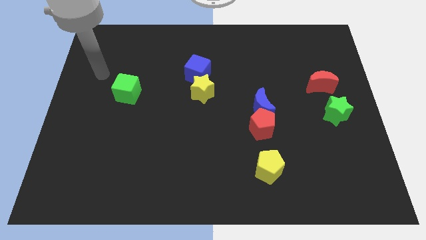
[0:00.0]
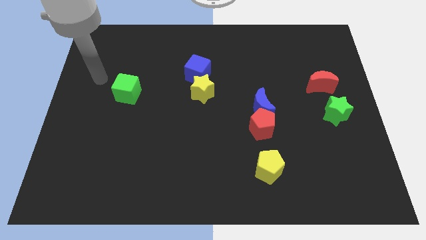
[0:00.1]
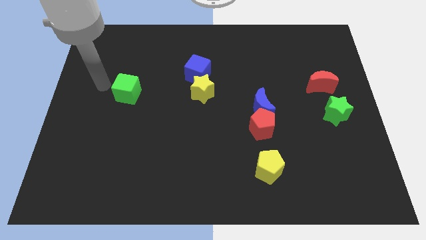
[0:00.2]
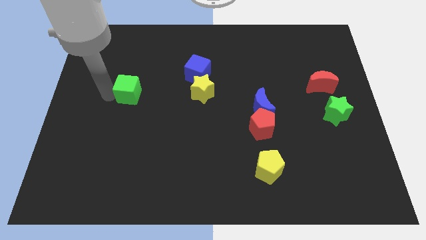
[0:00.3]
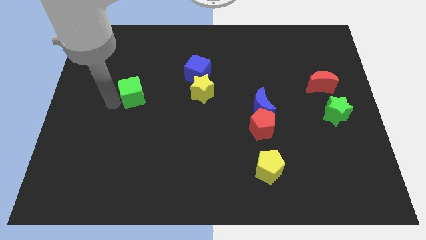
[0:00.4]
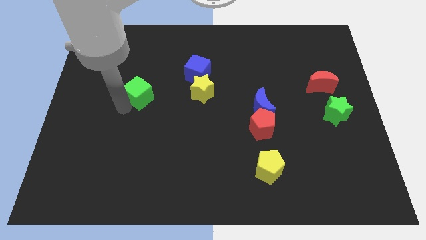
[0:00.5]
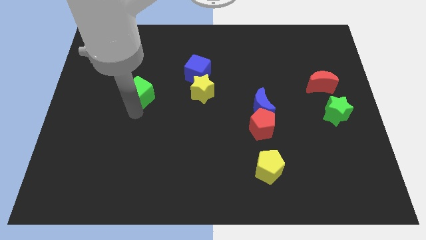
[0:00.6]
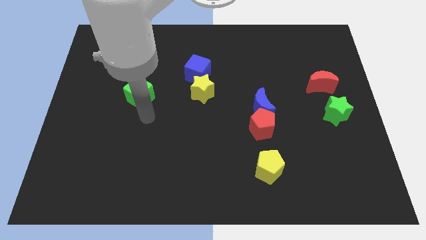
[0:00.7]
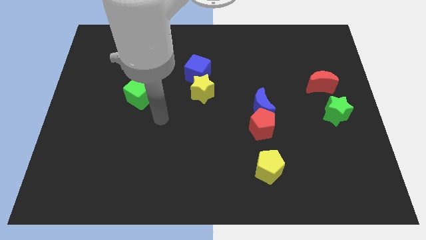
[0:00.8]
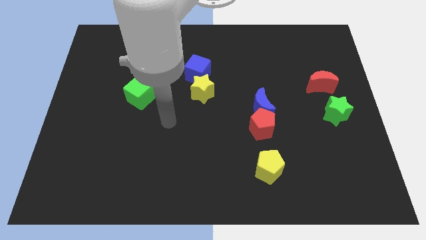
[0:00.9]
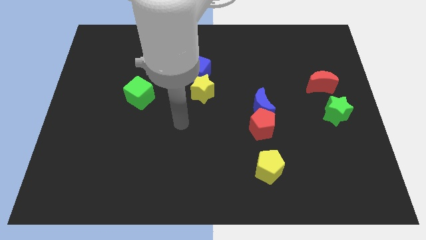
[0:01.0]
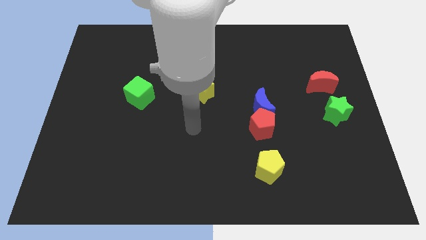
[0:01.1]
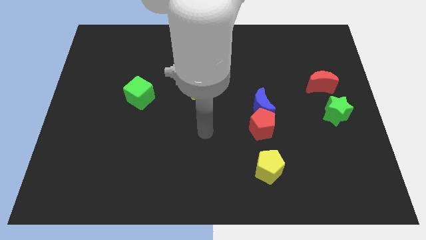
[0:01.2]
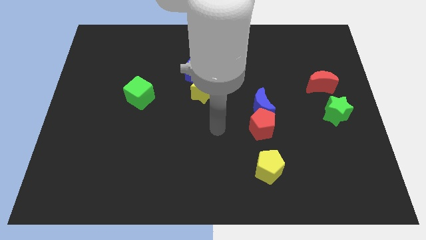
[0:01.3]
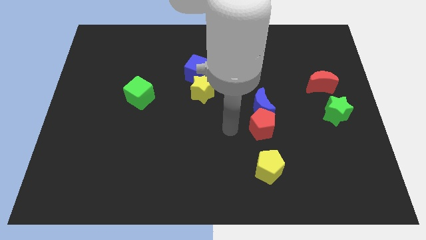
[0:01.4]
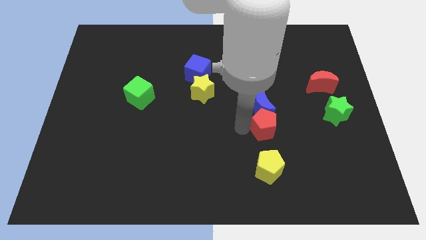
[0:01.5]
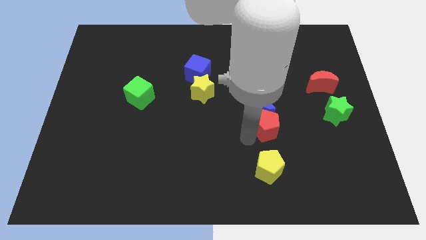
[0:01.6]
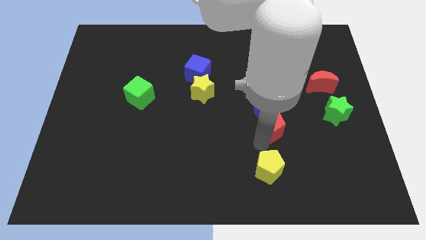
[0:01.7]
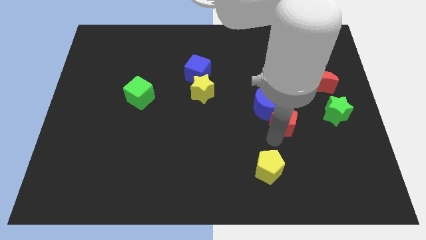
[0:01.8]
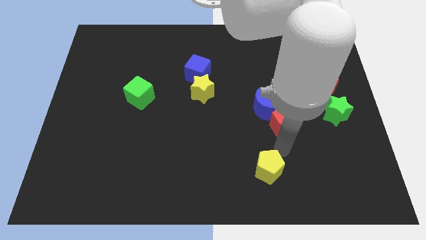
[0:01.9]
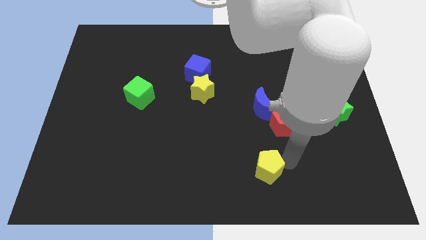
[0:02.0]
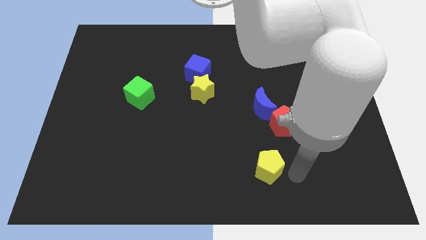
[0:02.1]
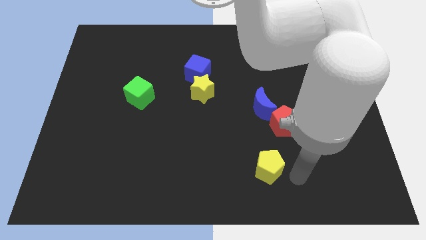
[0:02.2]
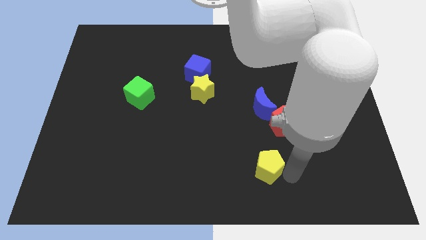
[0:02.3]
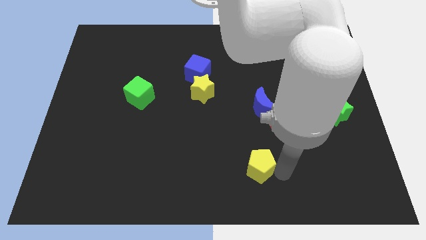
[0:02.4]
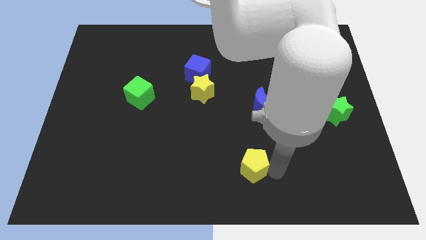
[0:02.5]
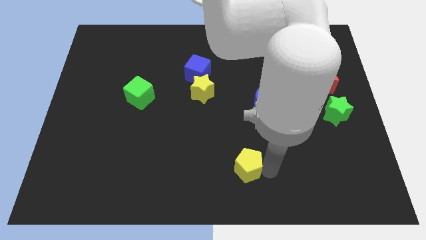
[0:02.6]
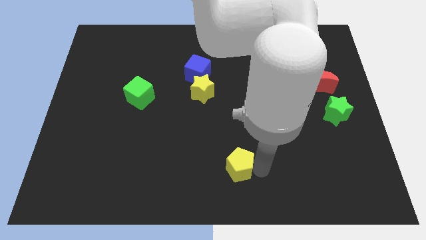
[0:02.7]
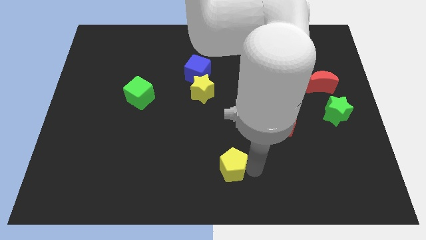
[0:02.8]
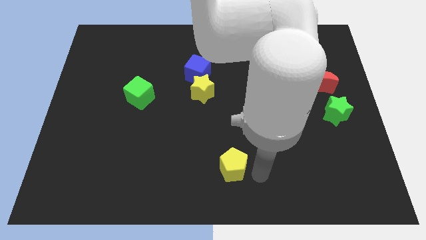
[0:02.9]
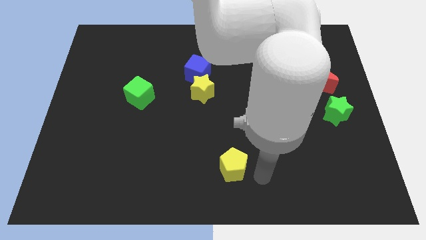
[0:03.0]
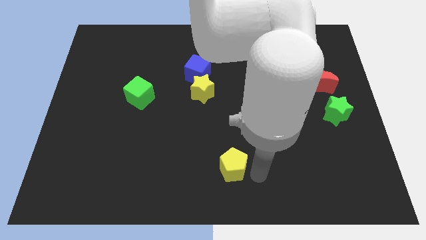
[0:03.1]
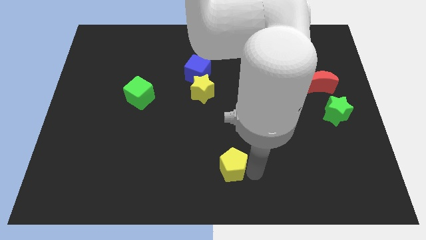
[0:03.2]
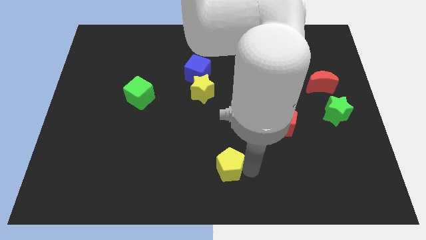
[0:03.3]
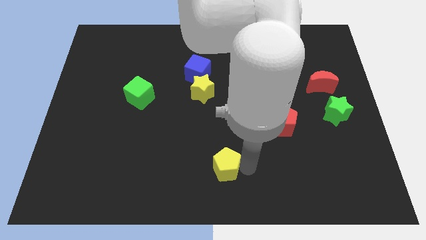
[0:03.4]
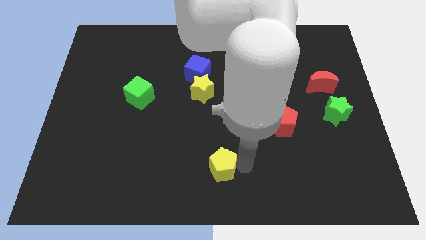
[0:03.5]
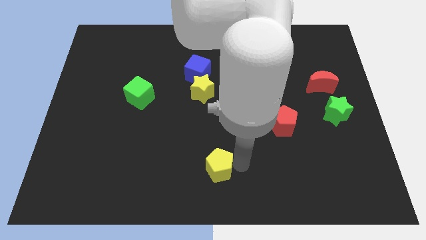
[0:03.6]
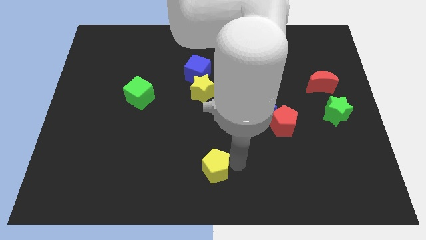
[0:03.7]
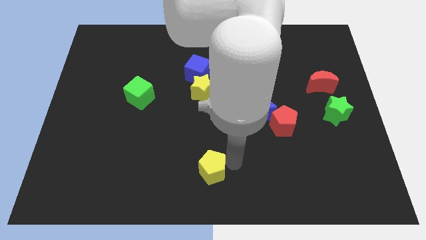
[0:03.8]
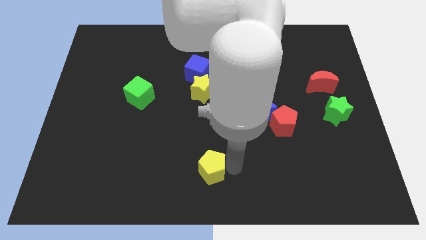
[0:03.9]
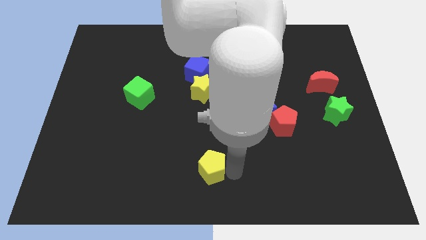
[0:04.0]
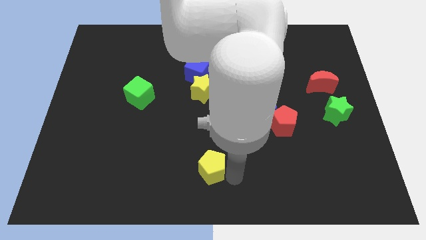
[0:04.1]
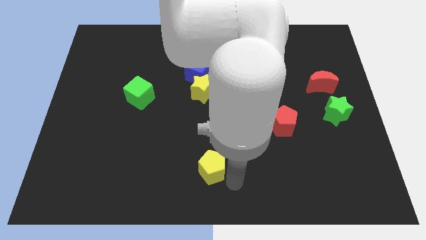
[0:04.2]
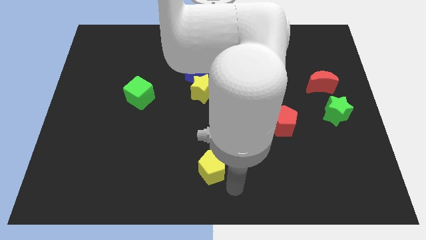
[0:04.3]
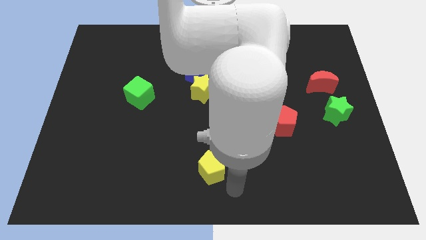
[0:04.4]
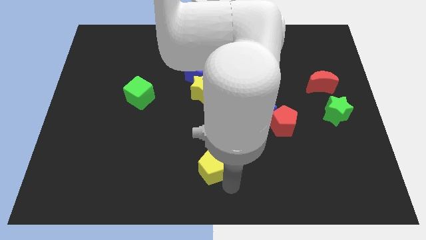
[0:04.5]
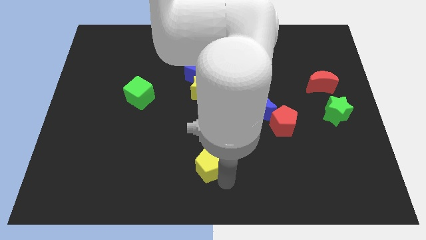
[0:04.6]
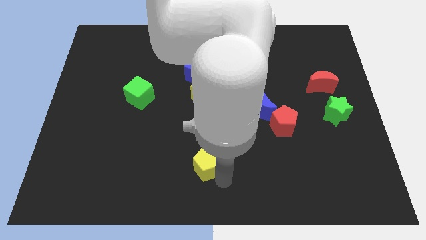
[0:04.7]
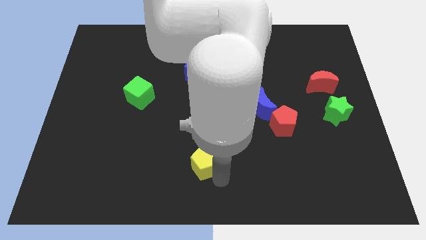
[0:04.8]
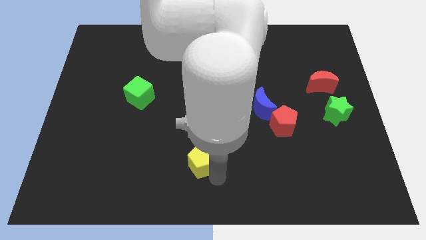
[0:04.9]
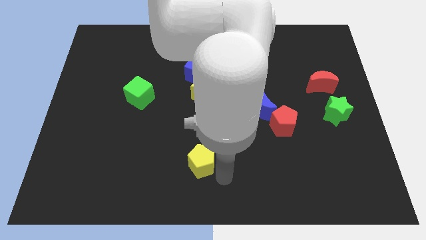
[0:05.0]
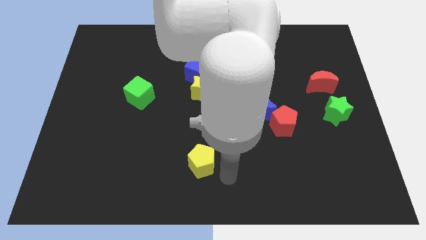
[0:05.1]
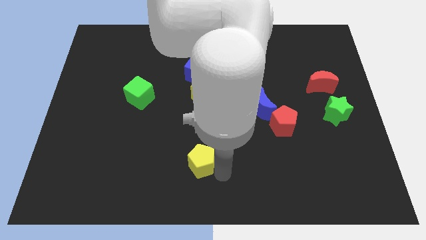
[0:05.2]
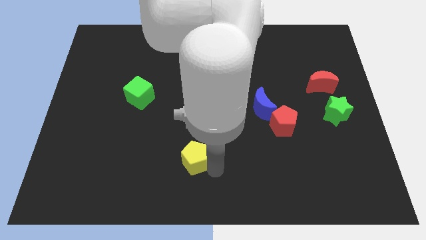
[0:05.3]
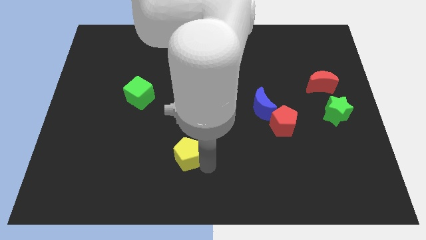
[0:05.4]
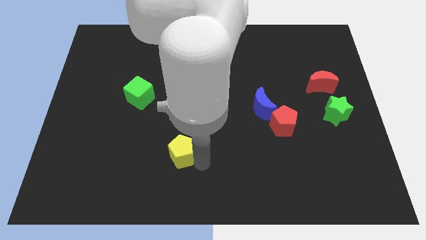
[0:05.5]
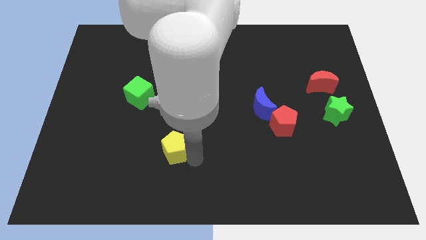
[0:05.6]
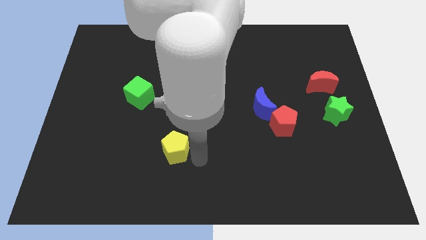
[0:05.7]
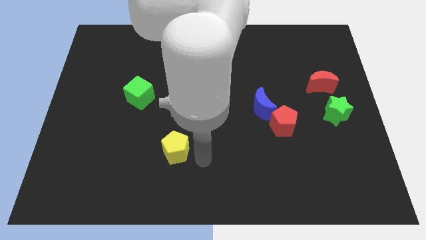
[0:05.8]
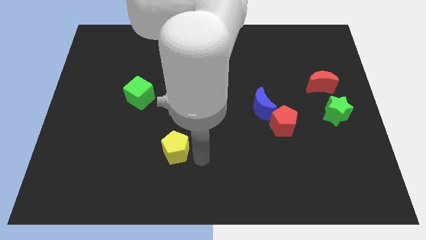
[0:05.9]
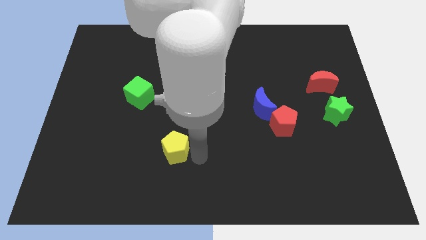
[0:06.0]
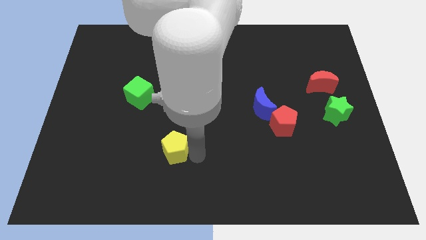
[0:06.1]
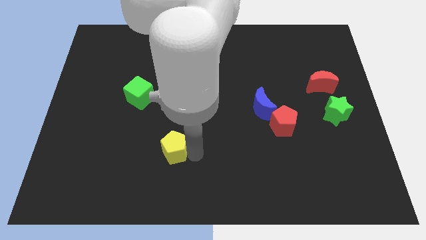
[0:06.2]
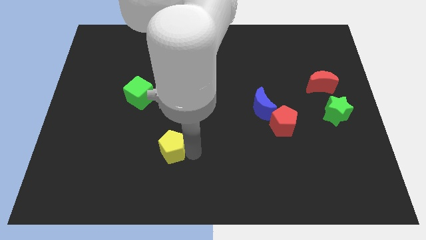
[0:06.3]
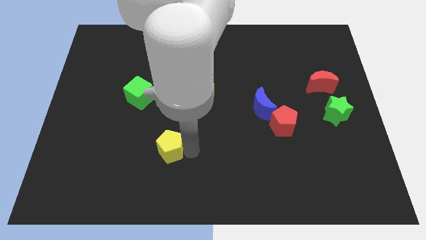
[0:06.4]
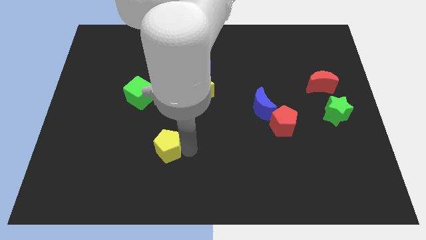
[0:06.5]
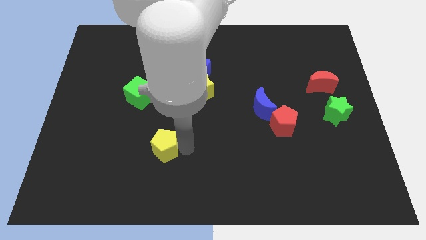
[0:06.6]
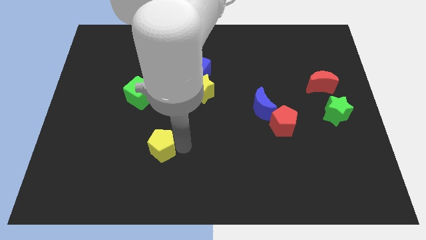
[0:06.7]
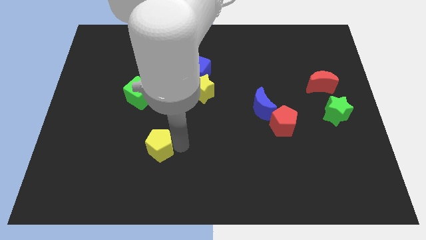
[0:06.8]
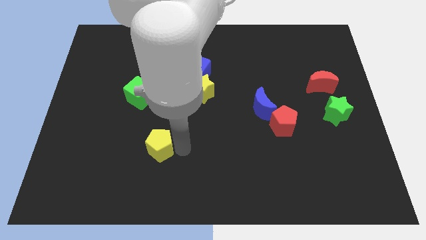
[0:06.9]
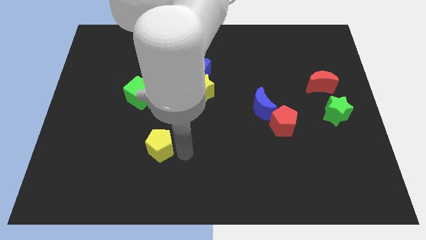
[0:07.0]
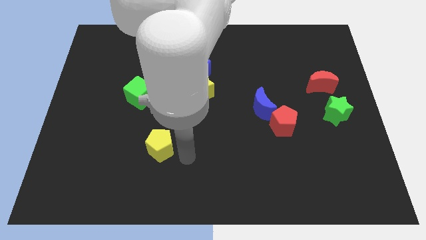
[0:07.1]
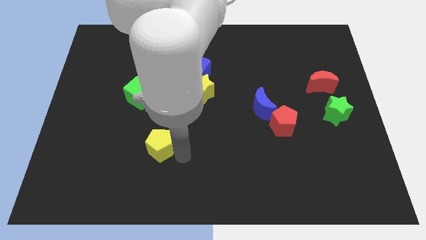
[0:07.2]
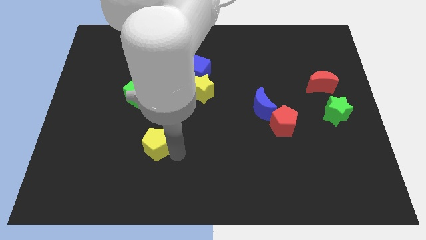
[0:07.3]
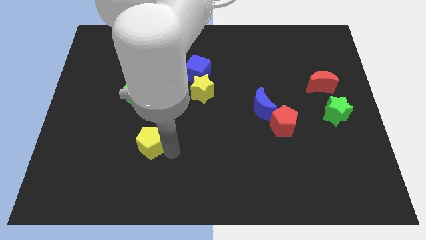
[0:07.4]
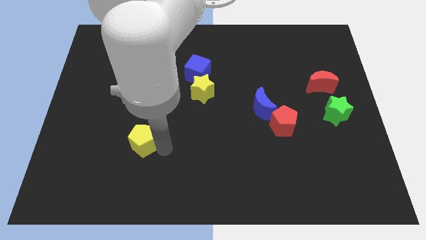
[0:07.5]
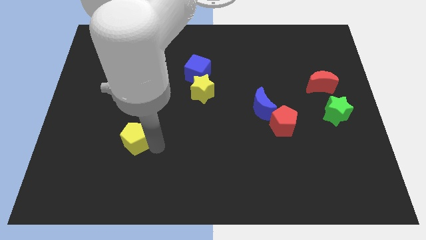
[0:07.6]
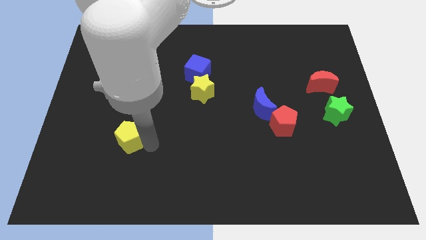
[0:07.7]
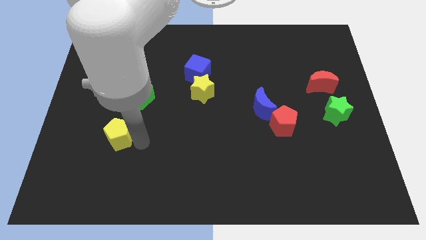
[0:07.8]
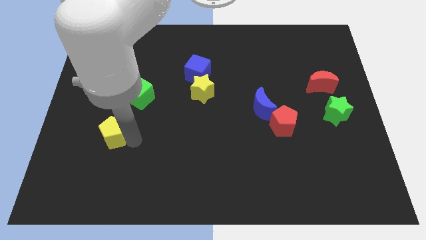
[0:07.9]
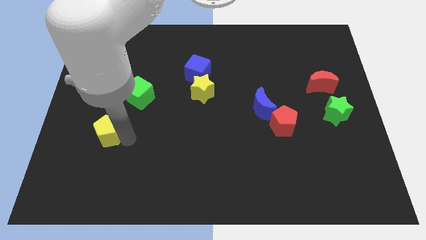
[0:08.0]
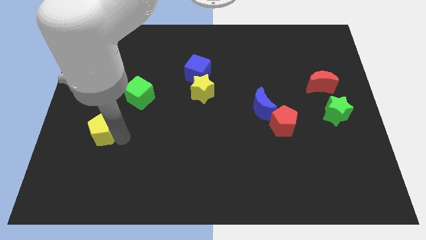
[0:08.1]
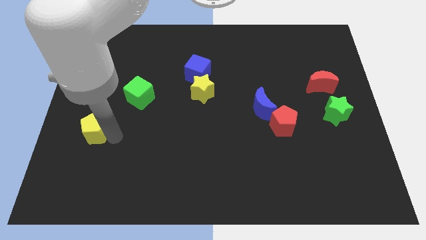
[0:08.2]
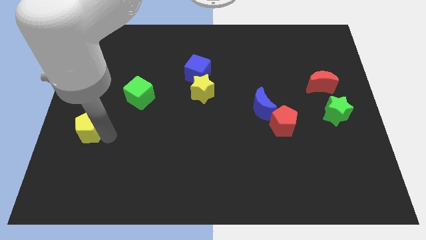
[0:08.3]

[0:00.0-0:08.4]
move the yellow pentagon to the left side
